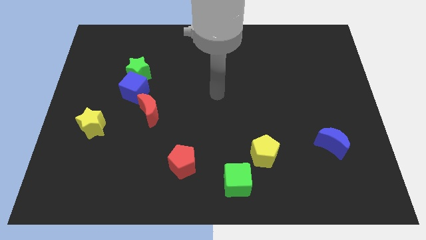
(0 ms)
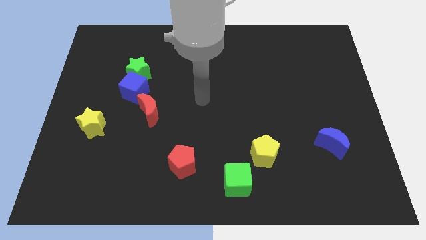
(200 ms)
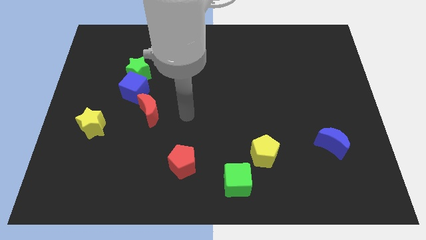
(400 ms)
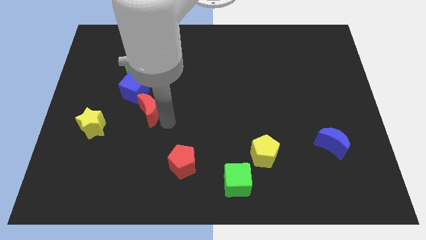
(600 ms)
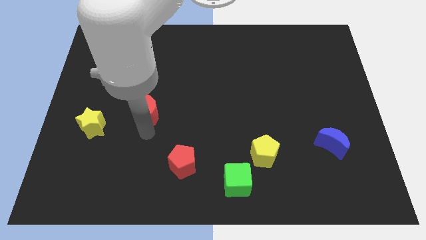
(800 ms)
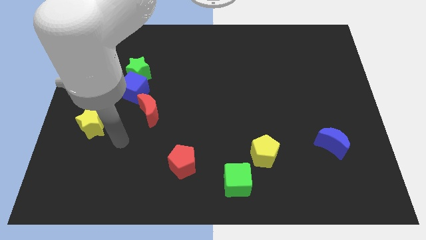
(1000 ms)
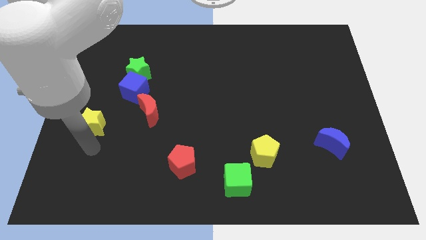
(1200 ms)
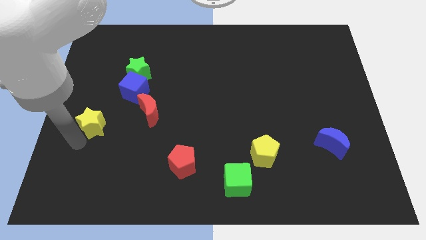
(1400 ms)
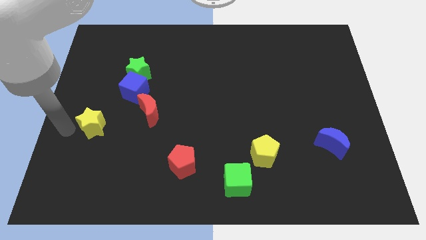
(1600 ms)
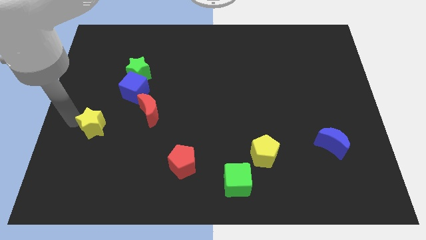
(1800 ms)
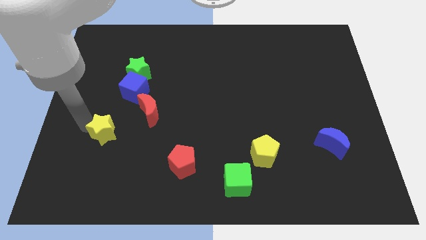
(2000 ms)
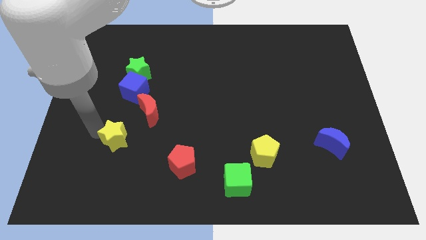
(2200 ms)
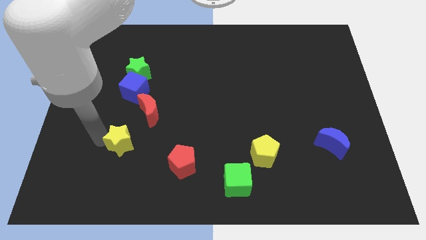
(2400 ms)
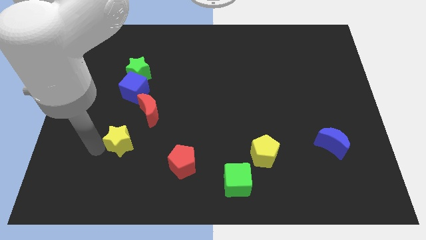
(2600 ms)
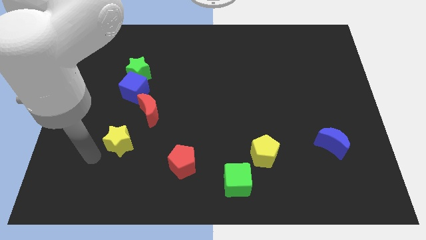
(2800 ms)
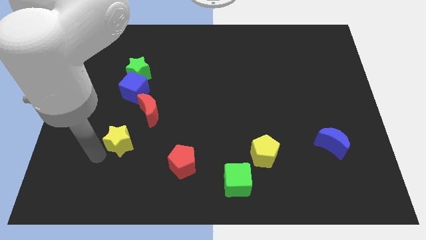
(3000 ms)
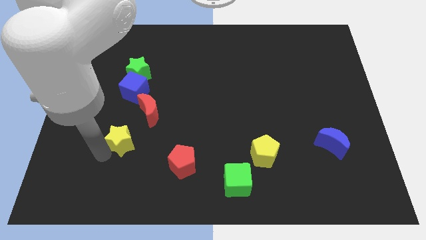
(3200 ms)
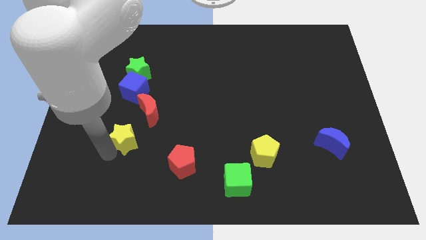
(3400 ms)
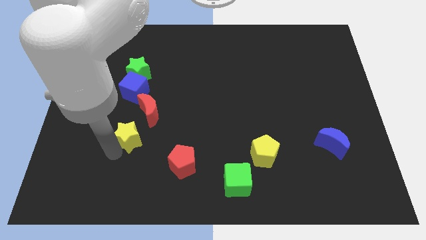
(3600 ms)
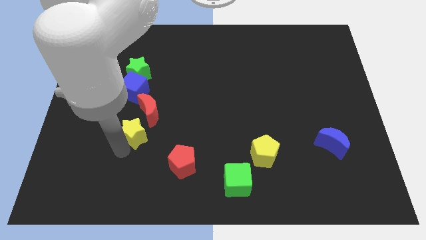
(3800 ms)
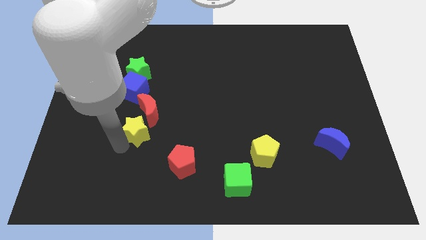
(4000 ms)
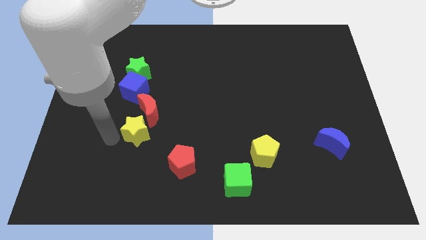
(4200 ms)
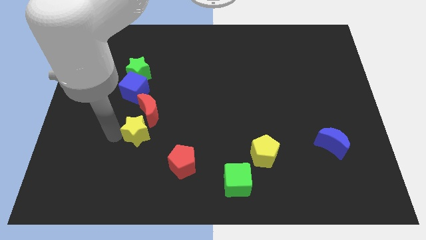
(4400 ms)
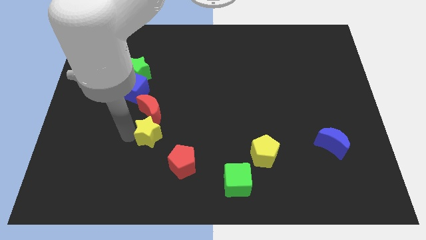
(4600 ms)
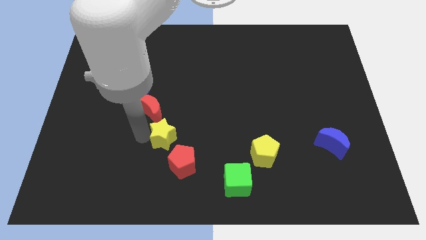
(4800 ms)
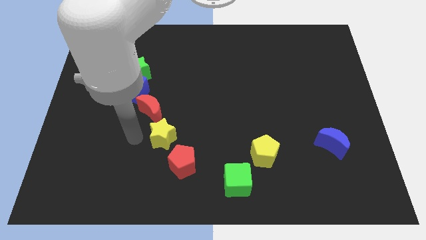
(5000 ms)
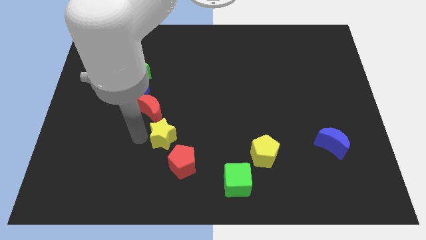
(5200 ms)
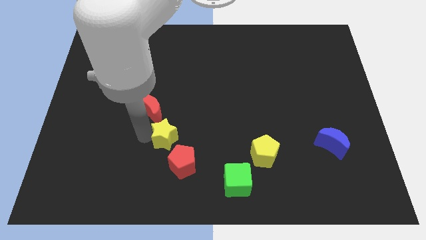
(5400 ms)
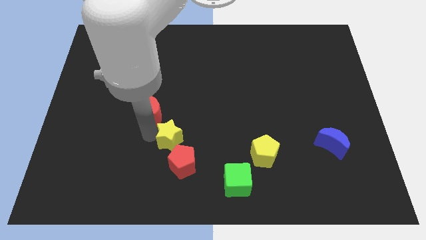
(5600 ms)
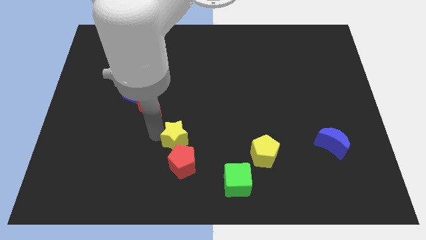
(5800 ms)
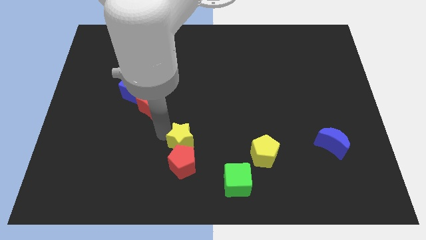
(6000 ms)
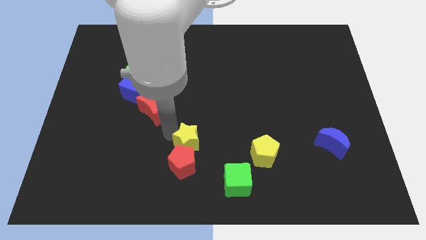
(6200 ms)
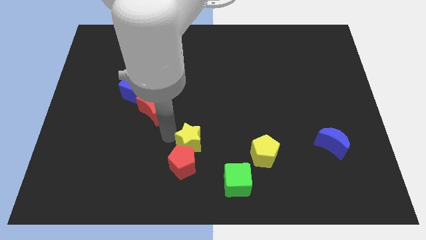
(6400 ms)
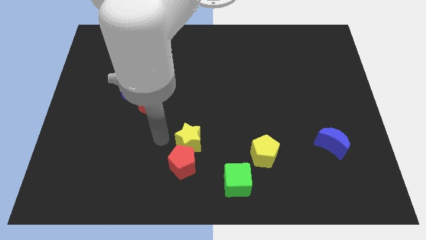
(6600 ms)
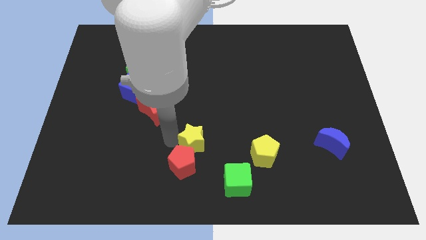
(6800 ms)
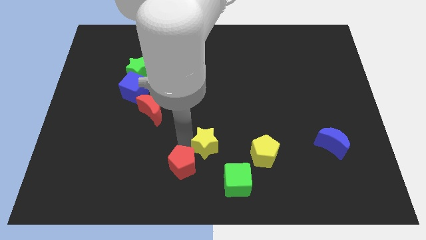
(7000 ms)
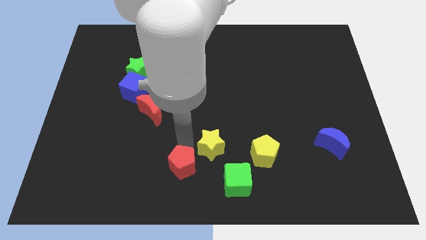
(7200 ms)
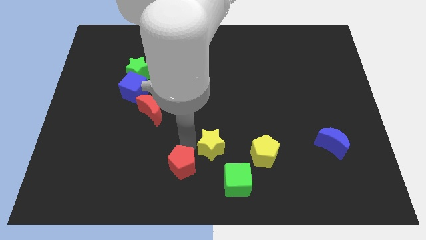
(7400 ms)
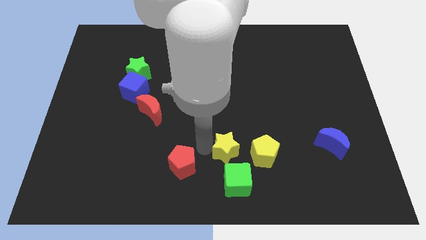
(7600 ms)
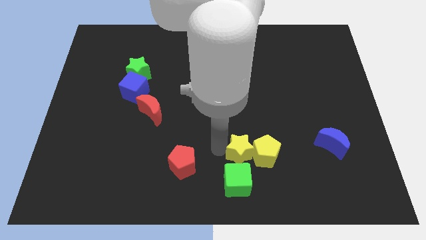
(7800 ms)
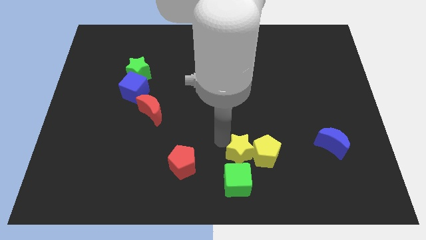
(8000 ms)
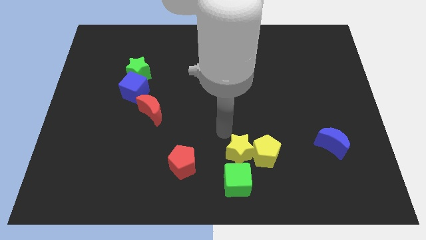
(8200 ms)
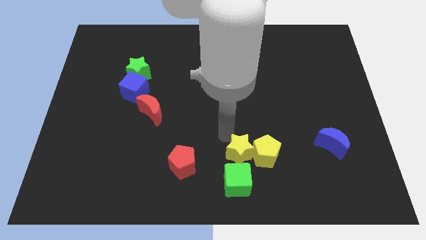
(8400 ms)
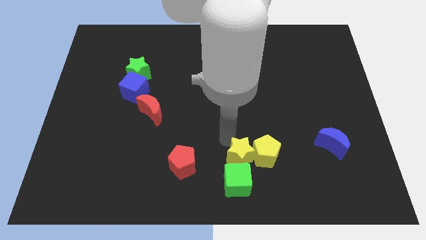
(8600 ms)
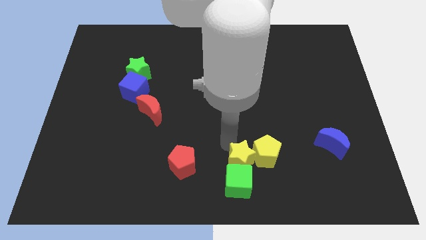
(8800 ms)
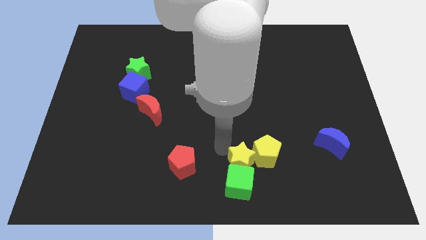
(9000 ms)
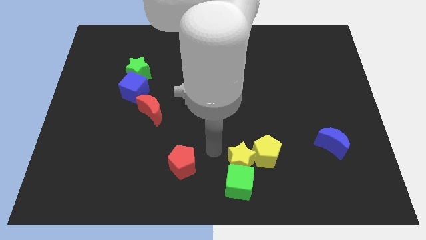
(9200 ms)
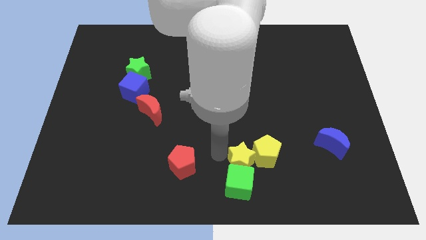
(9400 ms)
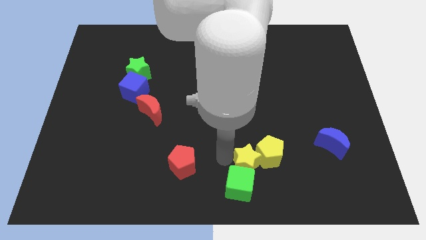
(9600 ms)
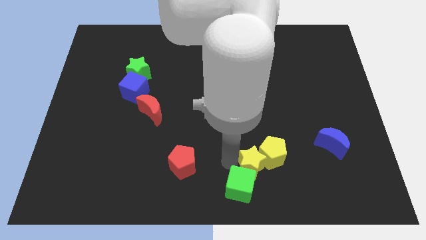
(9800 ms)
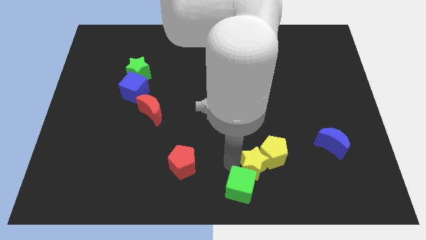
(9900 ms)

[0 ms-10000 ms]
slide the yellow star right of the green cube

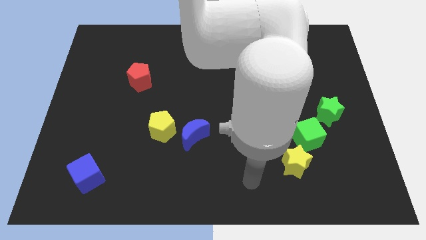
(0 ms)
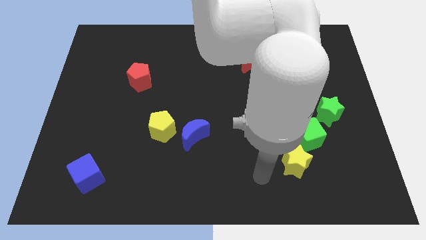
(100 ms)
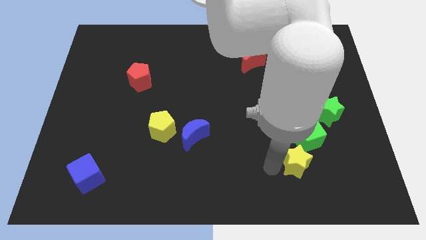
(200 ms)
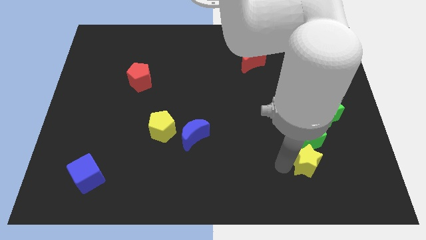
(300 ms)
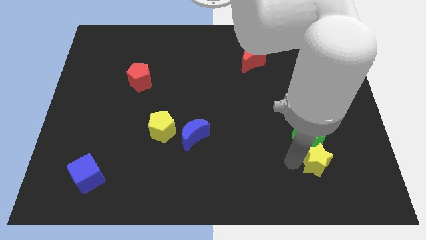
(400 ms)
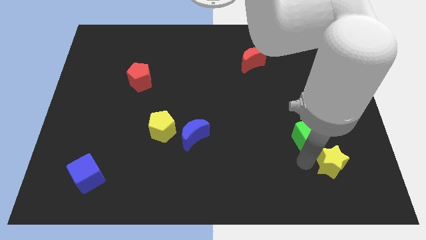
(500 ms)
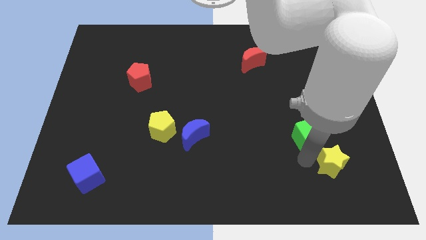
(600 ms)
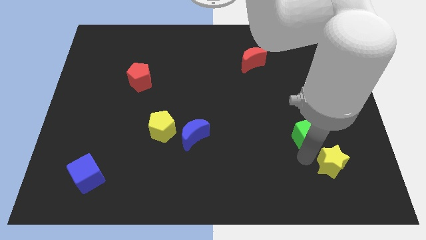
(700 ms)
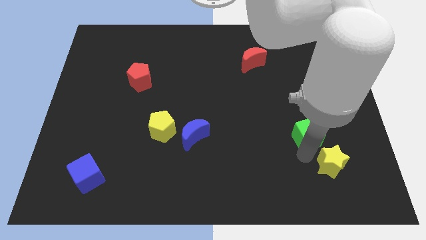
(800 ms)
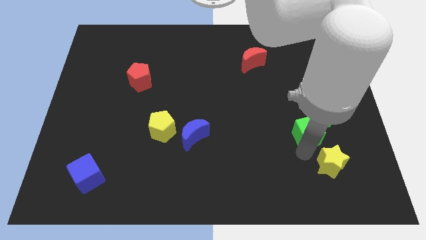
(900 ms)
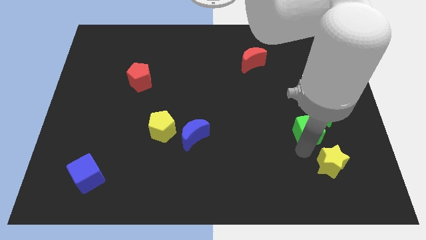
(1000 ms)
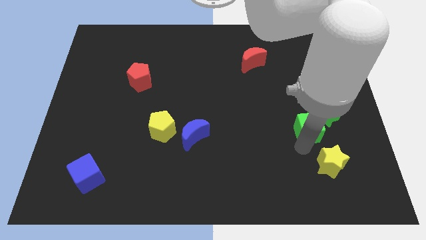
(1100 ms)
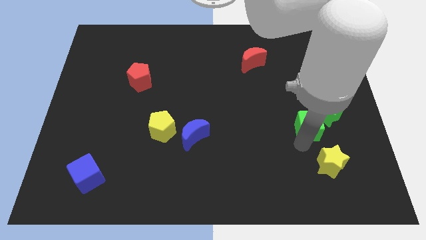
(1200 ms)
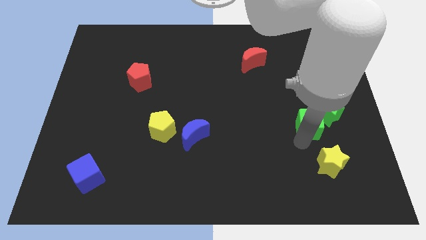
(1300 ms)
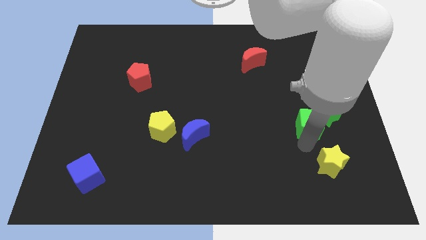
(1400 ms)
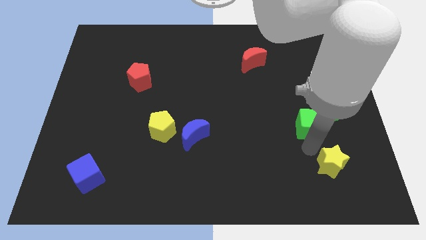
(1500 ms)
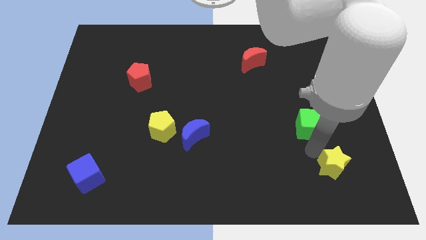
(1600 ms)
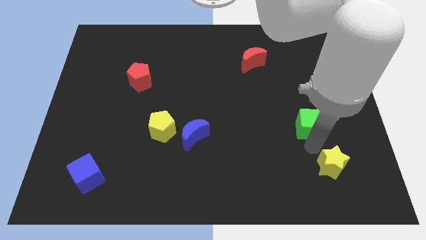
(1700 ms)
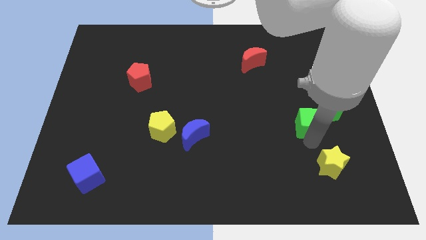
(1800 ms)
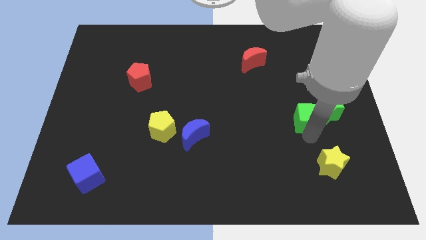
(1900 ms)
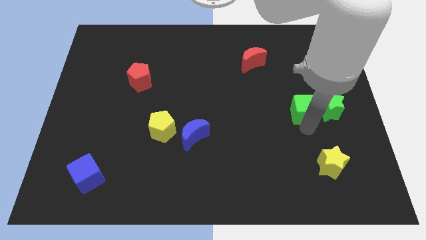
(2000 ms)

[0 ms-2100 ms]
push the green cube to the top left of the green star
